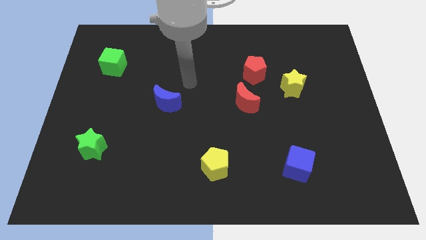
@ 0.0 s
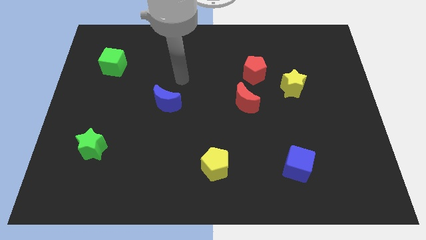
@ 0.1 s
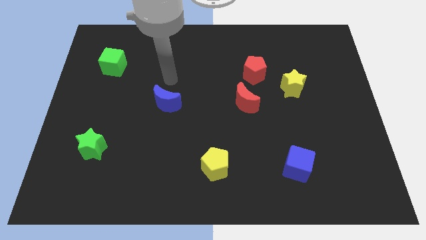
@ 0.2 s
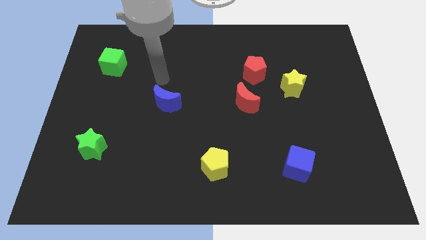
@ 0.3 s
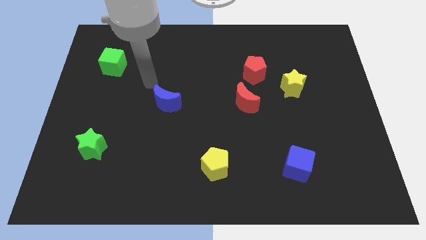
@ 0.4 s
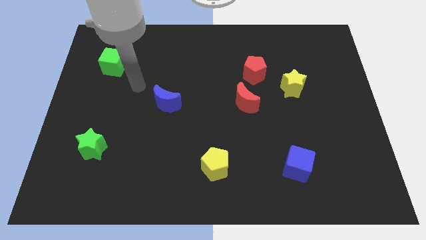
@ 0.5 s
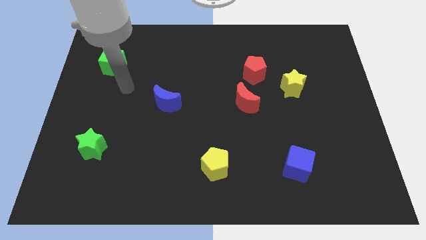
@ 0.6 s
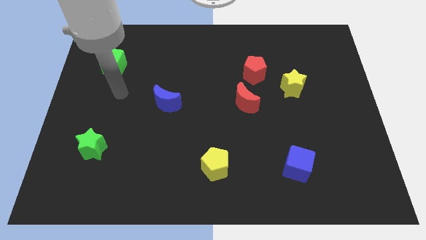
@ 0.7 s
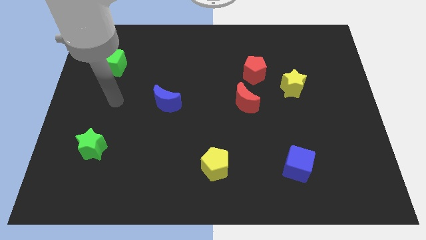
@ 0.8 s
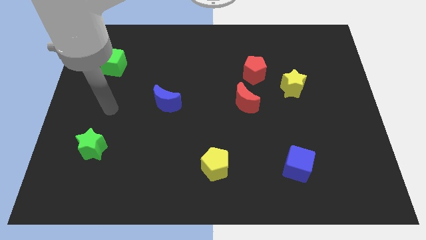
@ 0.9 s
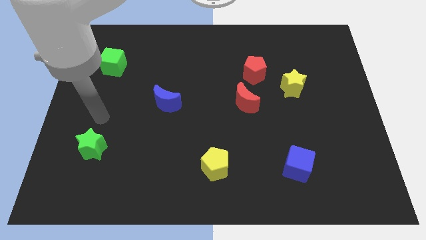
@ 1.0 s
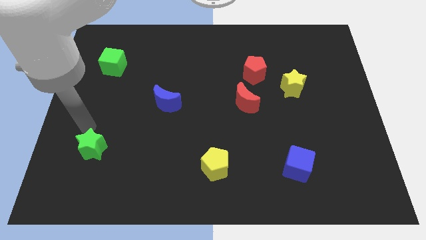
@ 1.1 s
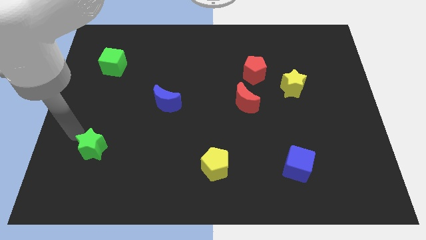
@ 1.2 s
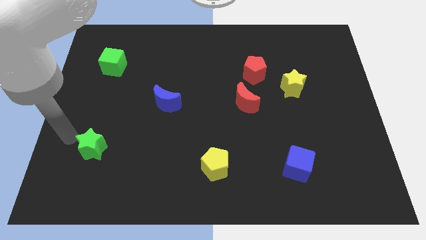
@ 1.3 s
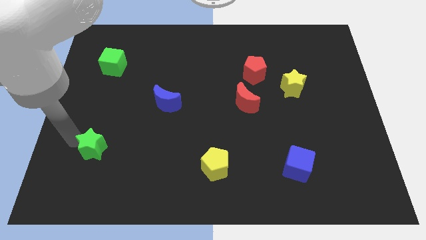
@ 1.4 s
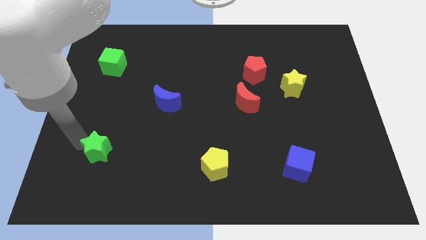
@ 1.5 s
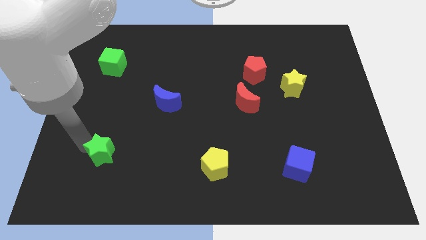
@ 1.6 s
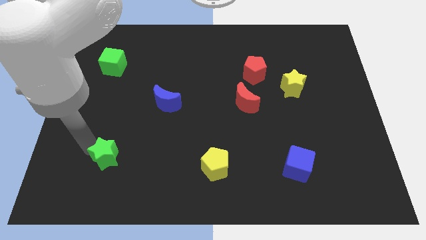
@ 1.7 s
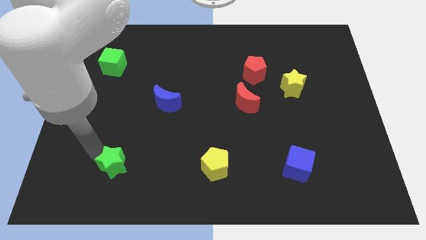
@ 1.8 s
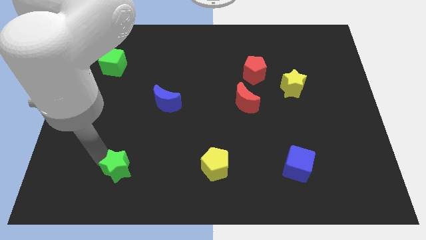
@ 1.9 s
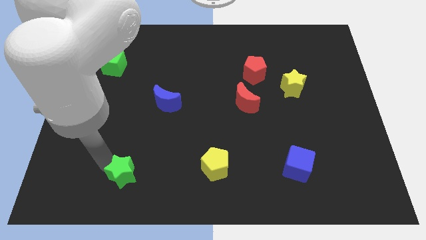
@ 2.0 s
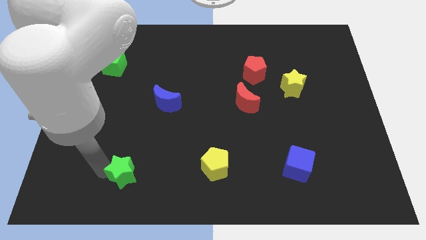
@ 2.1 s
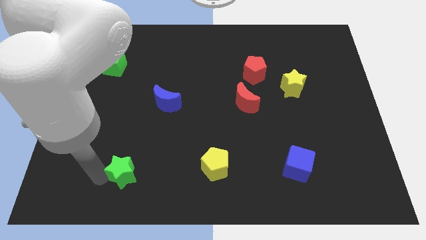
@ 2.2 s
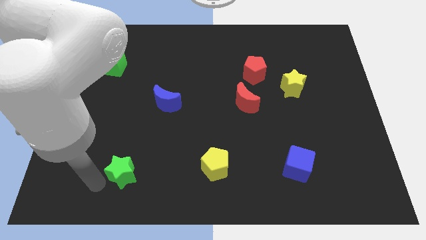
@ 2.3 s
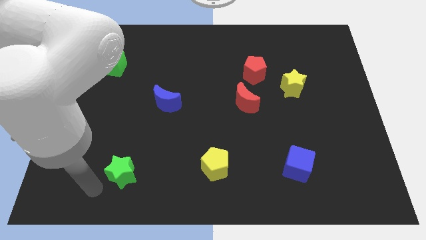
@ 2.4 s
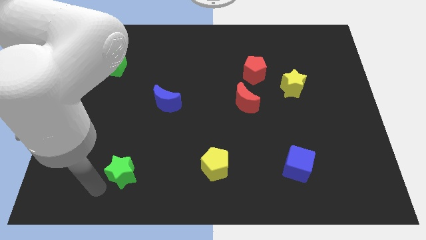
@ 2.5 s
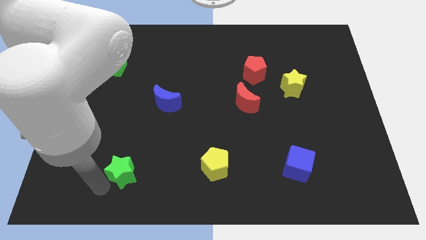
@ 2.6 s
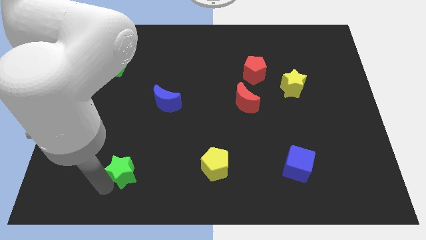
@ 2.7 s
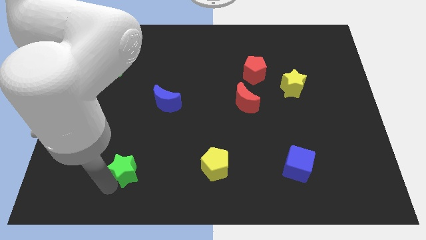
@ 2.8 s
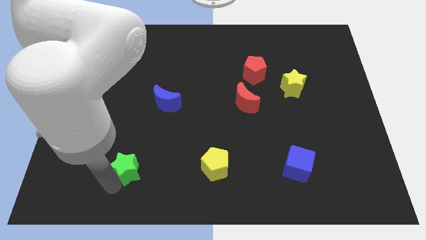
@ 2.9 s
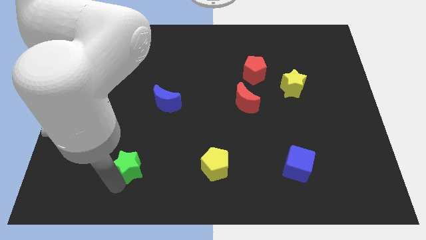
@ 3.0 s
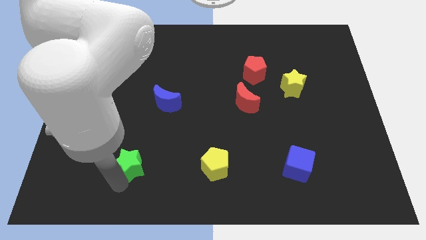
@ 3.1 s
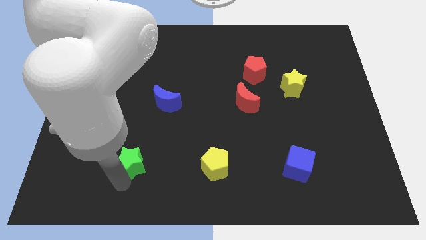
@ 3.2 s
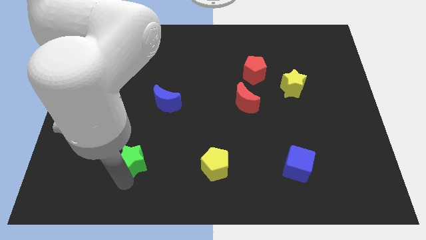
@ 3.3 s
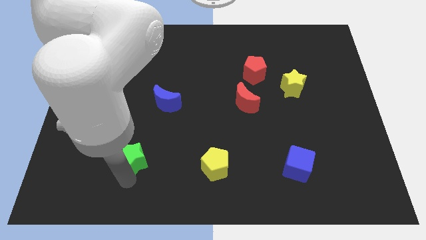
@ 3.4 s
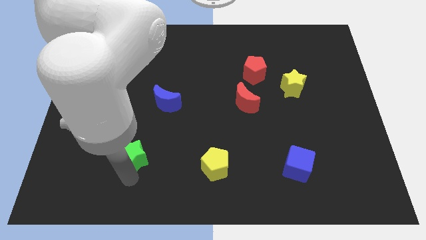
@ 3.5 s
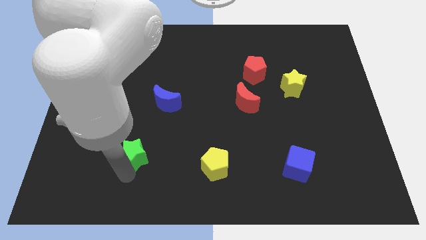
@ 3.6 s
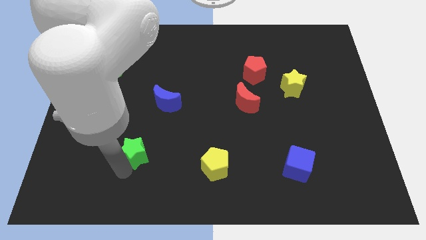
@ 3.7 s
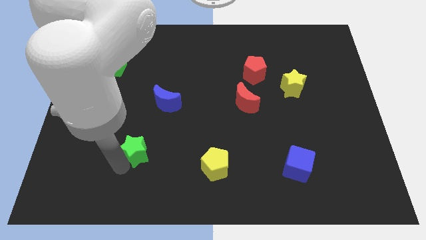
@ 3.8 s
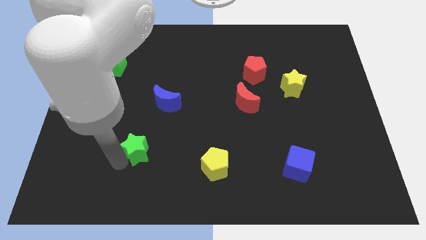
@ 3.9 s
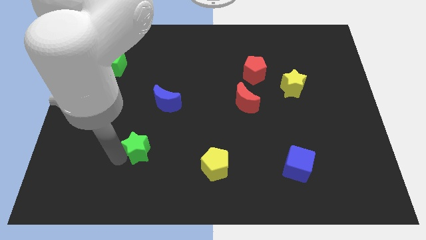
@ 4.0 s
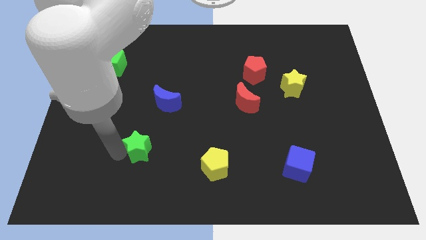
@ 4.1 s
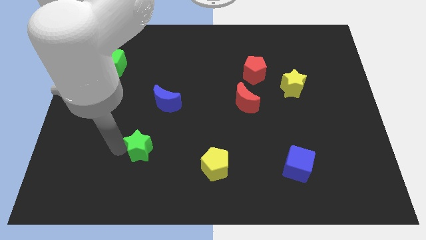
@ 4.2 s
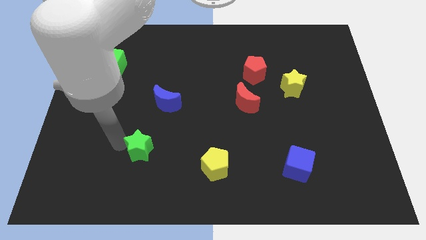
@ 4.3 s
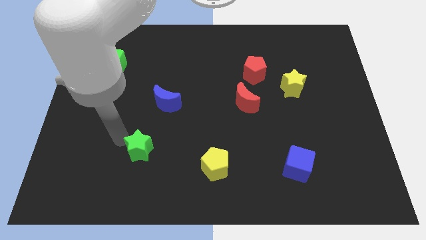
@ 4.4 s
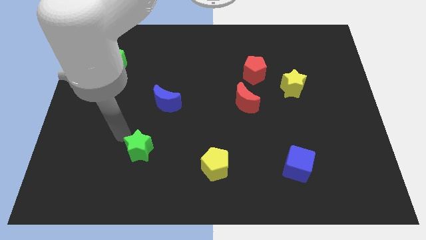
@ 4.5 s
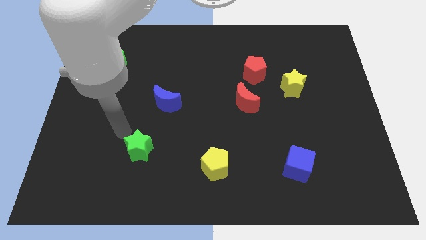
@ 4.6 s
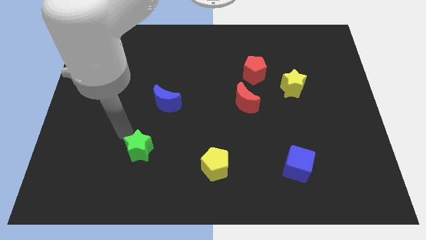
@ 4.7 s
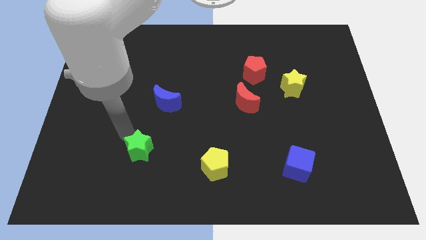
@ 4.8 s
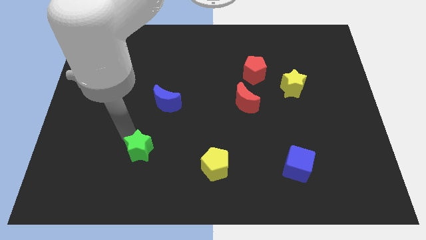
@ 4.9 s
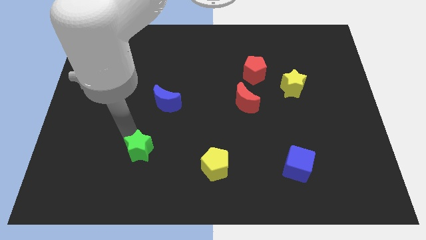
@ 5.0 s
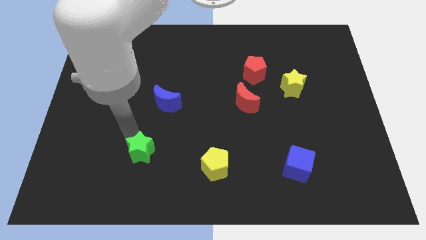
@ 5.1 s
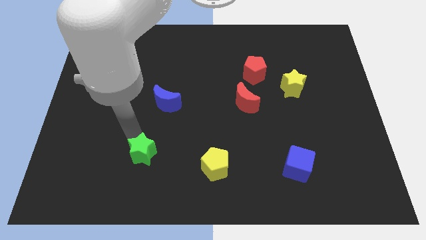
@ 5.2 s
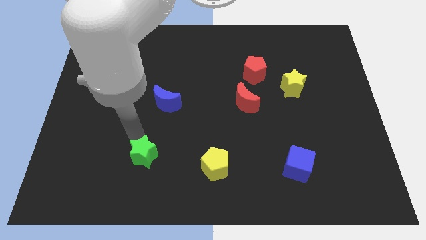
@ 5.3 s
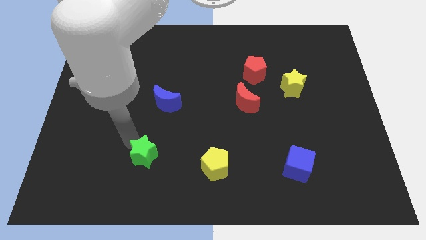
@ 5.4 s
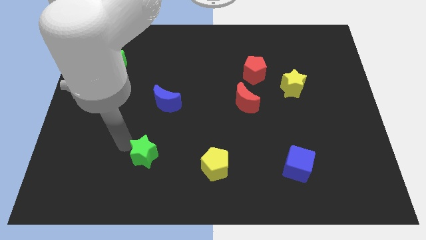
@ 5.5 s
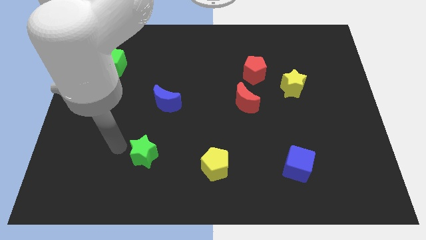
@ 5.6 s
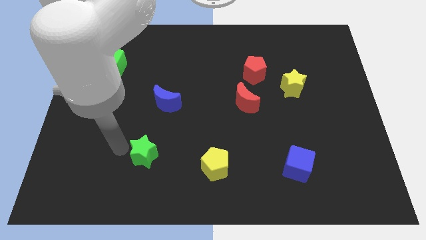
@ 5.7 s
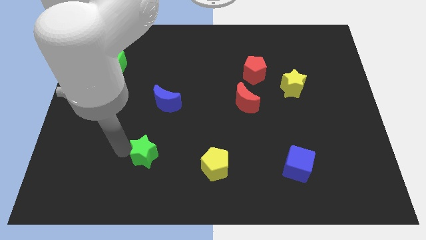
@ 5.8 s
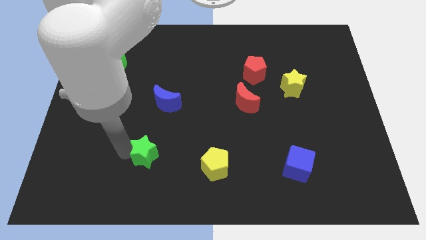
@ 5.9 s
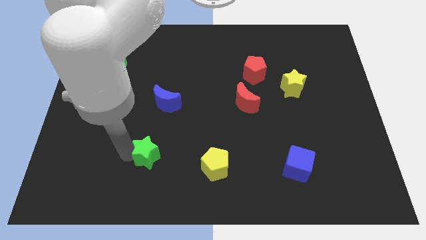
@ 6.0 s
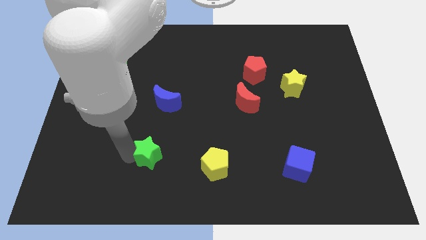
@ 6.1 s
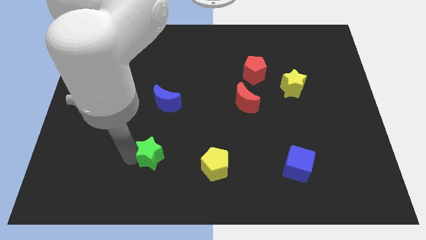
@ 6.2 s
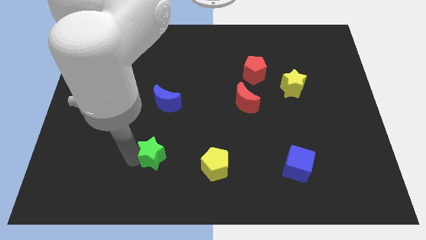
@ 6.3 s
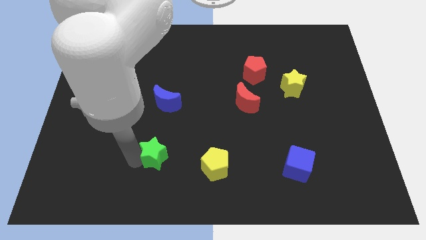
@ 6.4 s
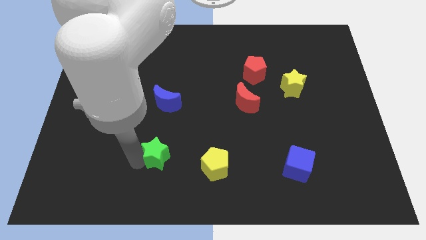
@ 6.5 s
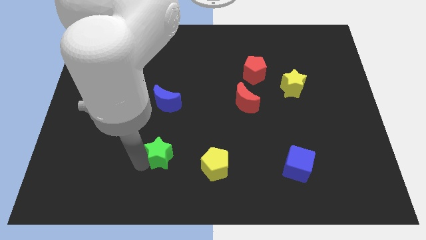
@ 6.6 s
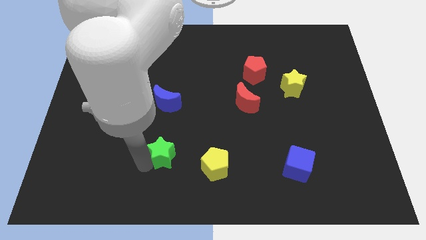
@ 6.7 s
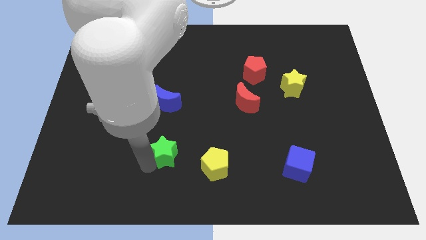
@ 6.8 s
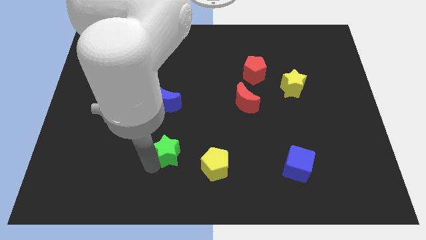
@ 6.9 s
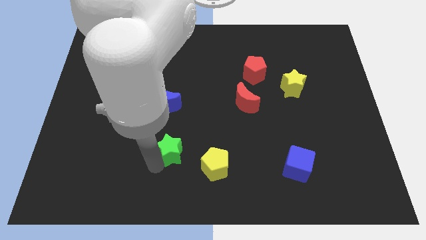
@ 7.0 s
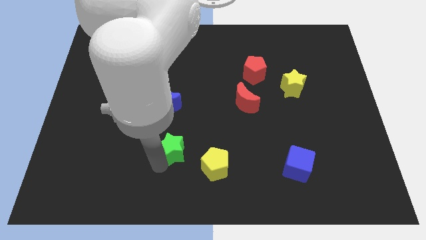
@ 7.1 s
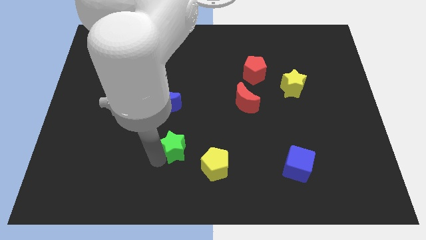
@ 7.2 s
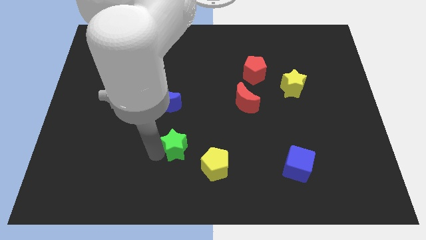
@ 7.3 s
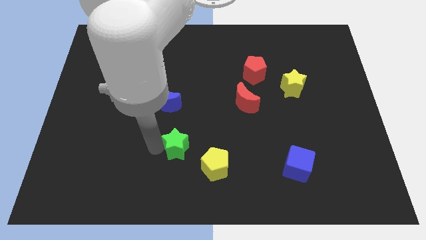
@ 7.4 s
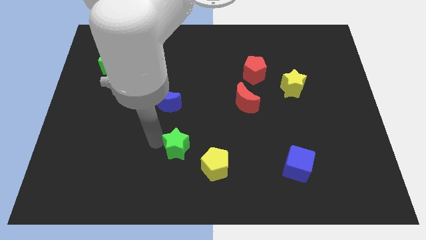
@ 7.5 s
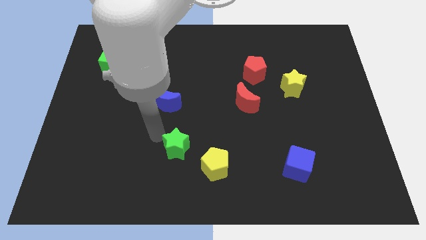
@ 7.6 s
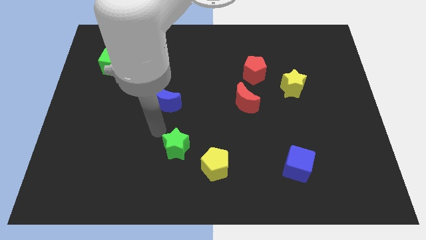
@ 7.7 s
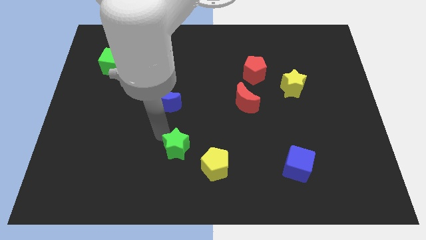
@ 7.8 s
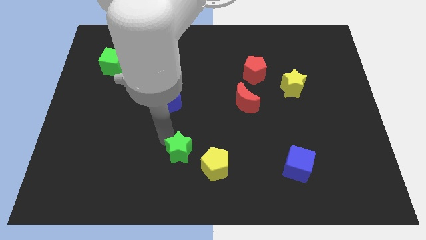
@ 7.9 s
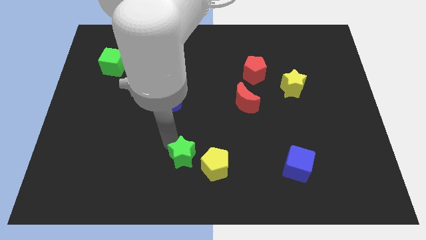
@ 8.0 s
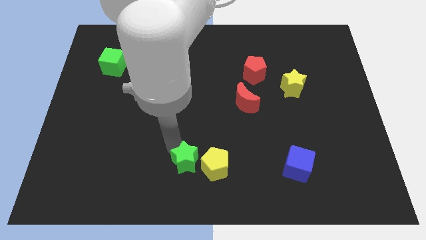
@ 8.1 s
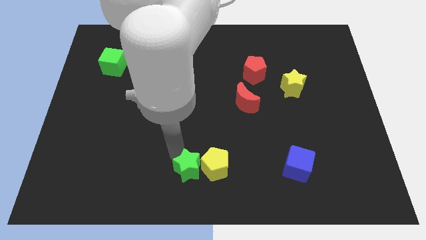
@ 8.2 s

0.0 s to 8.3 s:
put the green star to the yellow pentagon
